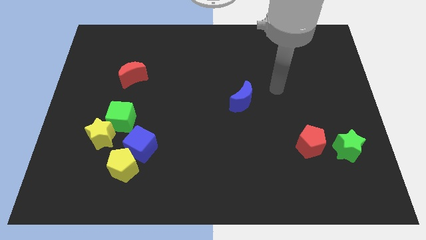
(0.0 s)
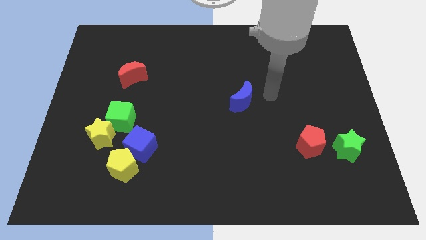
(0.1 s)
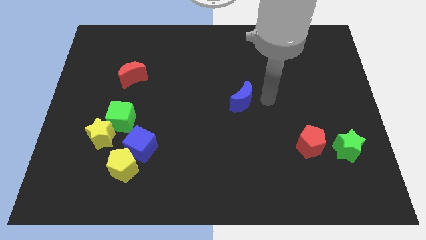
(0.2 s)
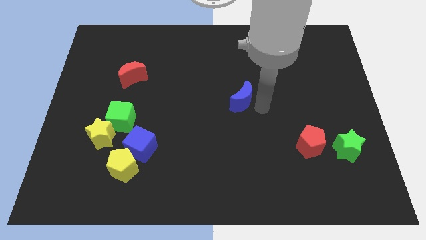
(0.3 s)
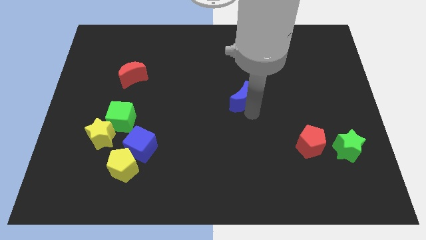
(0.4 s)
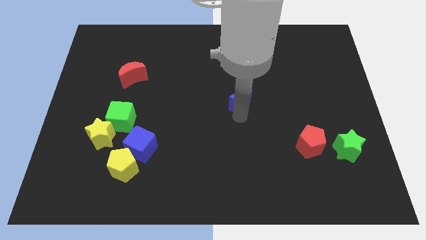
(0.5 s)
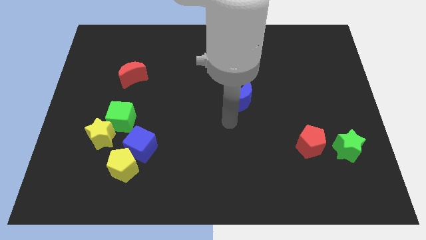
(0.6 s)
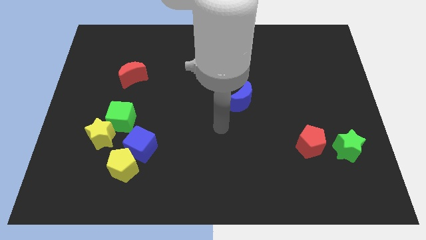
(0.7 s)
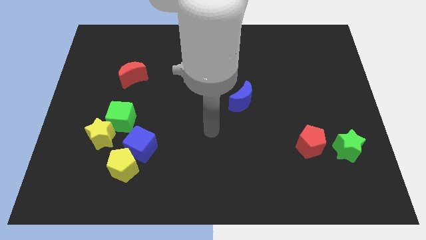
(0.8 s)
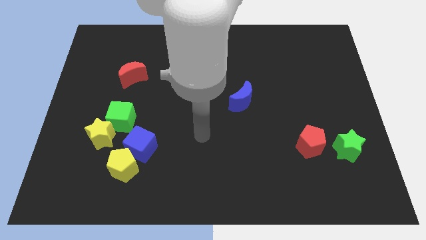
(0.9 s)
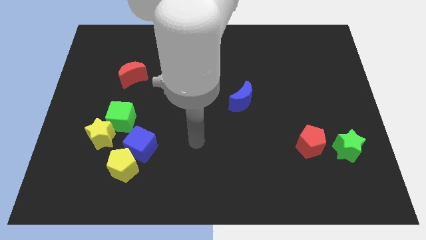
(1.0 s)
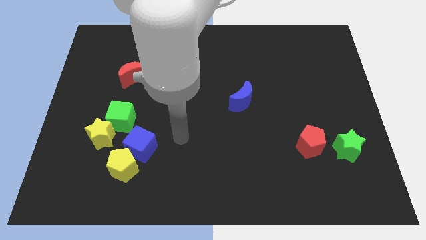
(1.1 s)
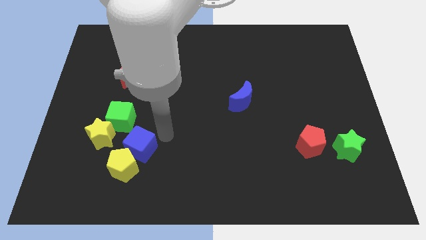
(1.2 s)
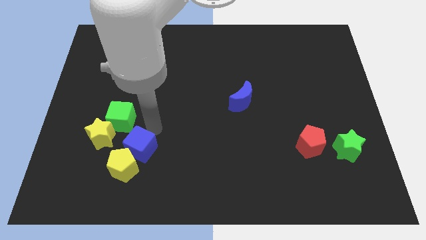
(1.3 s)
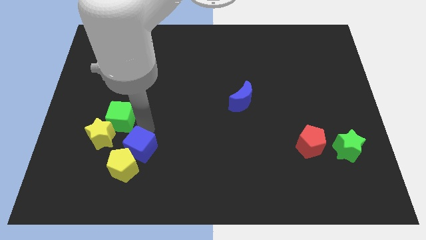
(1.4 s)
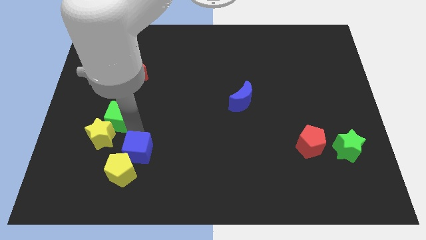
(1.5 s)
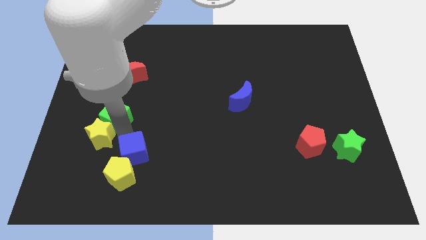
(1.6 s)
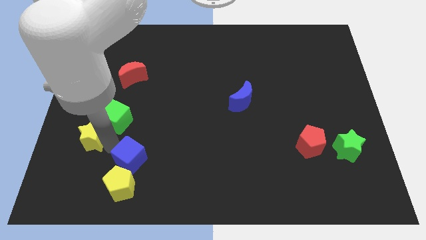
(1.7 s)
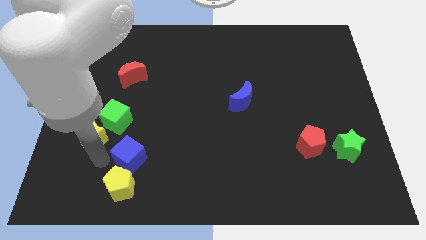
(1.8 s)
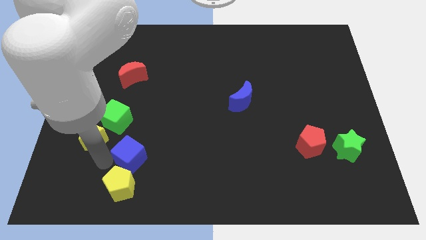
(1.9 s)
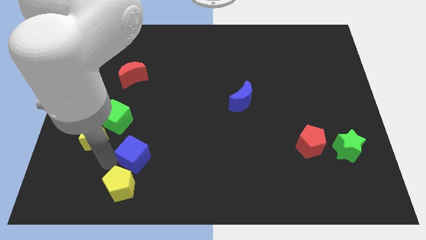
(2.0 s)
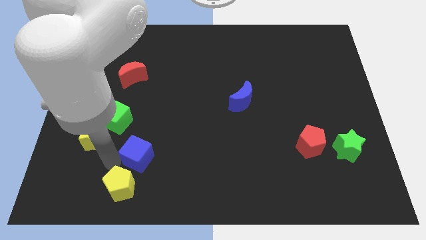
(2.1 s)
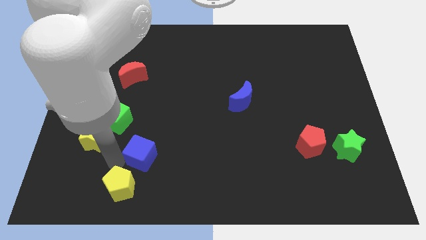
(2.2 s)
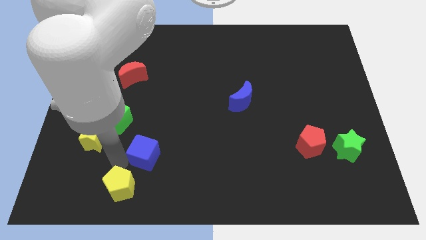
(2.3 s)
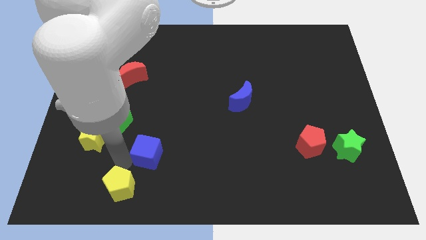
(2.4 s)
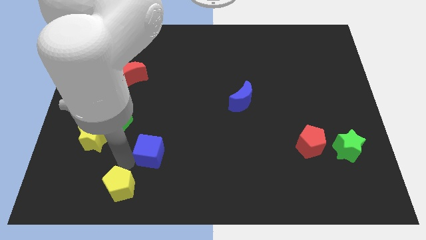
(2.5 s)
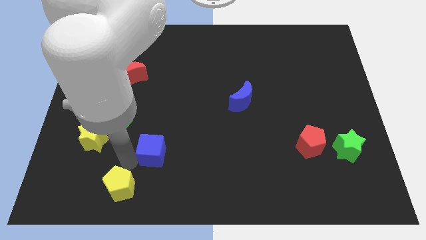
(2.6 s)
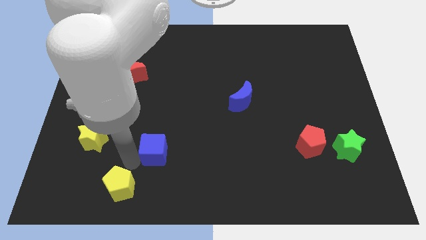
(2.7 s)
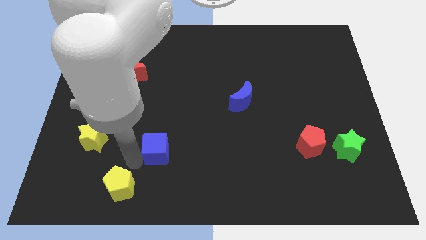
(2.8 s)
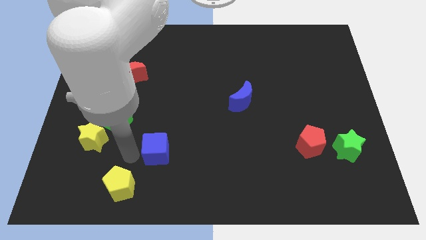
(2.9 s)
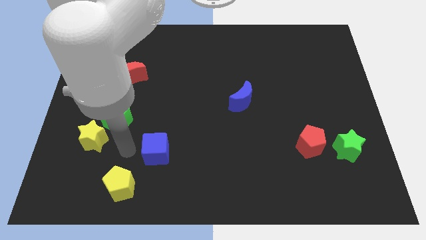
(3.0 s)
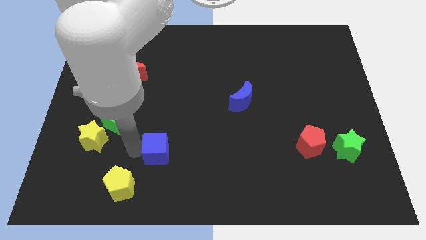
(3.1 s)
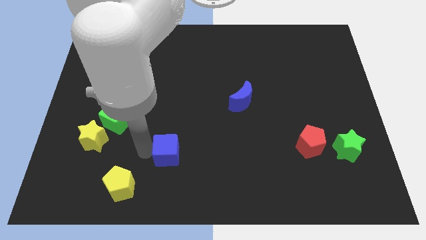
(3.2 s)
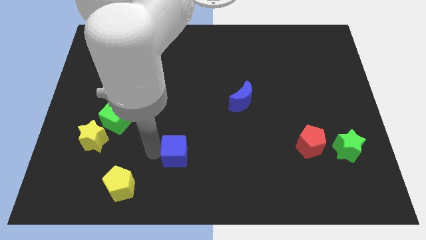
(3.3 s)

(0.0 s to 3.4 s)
push the blue cube to the right somewhat

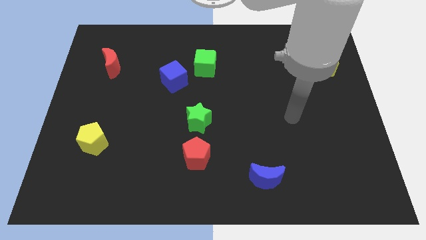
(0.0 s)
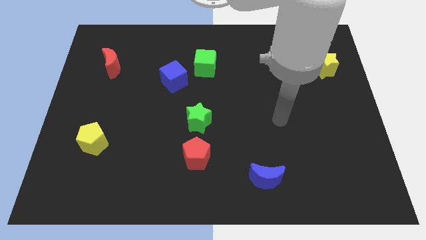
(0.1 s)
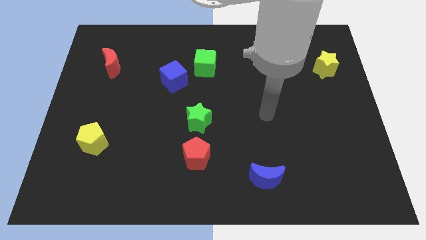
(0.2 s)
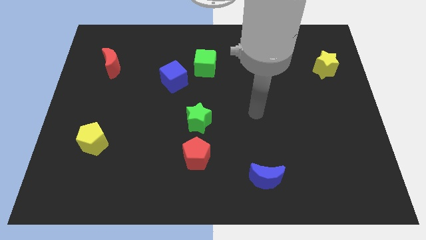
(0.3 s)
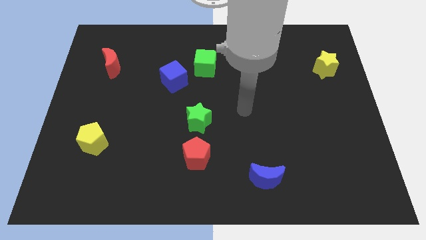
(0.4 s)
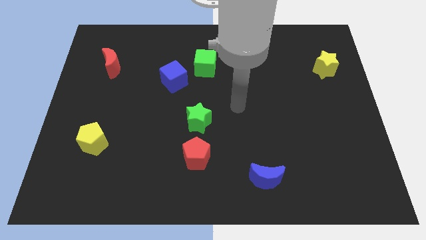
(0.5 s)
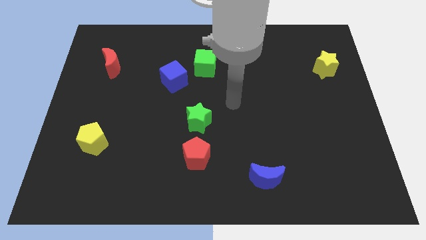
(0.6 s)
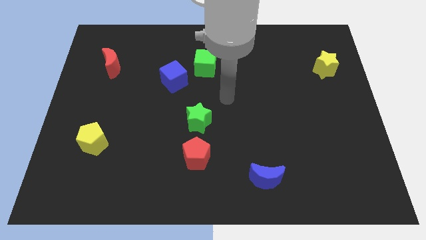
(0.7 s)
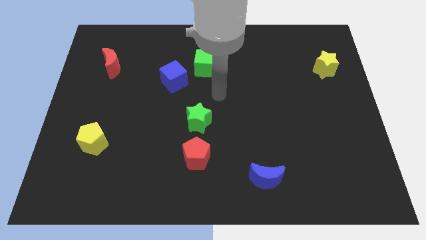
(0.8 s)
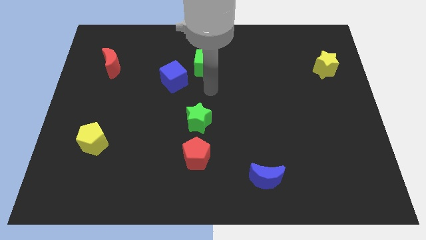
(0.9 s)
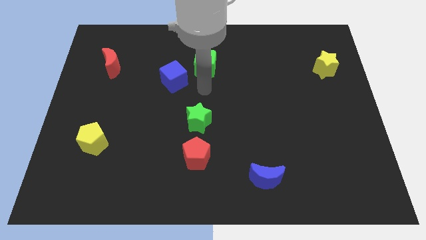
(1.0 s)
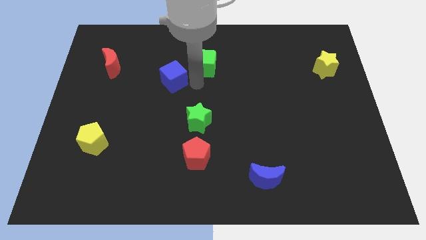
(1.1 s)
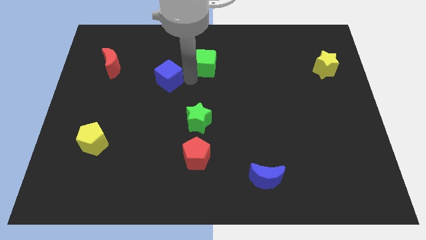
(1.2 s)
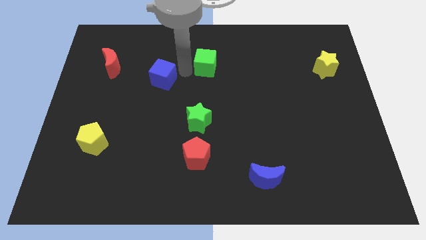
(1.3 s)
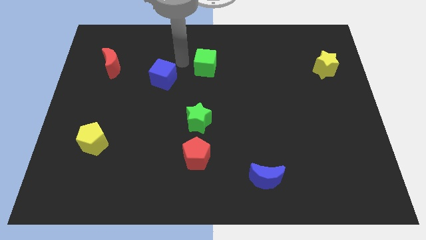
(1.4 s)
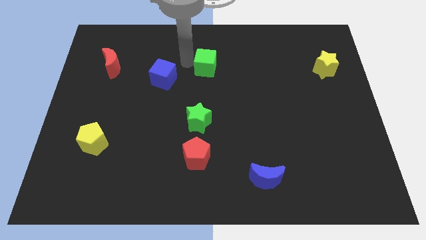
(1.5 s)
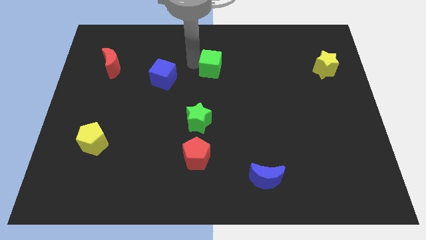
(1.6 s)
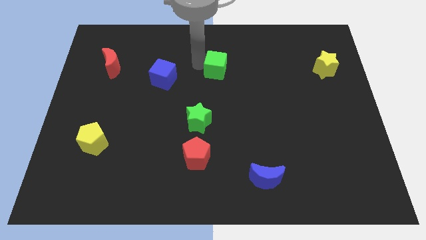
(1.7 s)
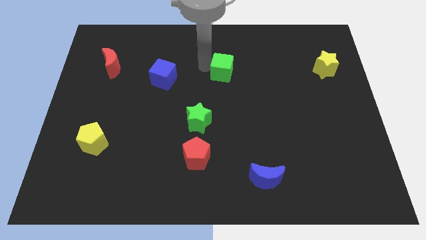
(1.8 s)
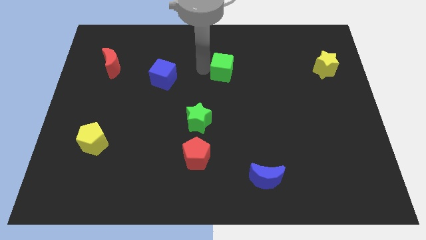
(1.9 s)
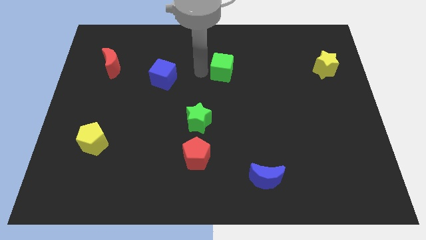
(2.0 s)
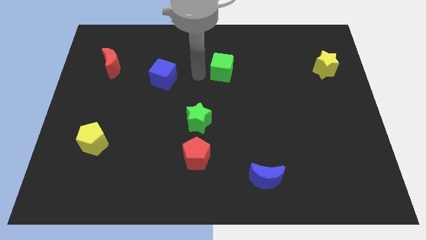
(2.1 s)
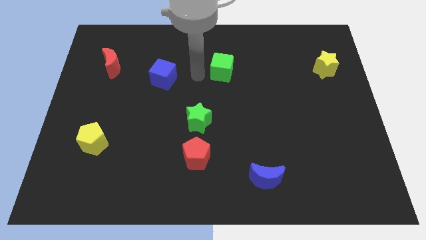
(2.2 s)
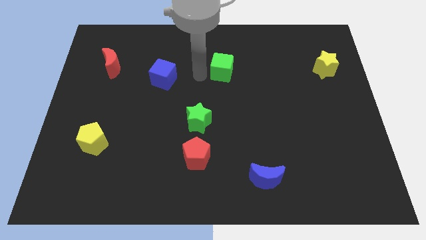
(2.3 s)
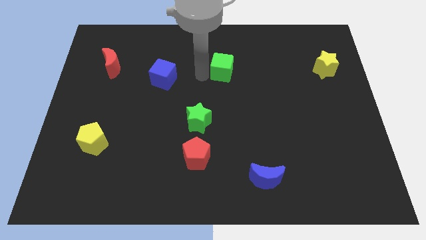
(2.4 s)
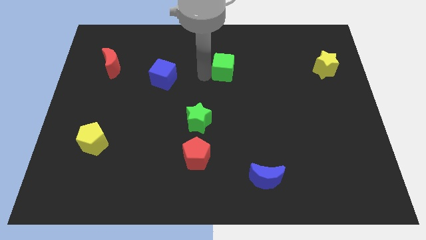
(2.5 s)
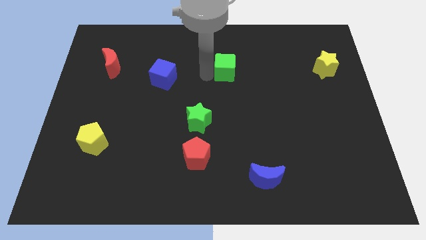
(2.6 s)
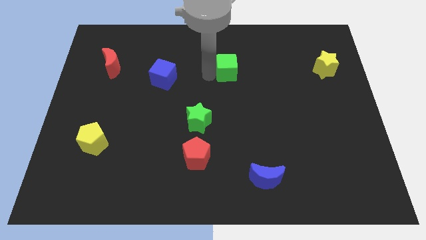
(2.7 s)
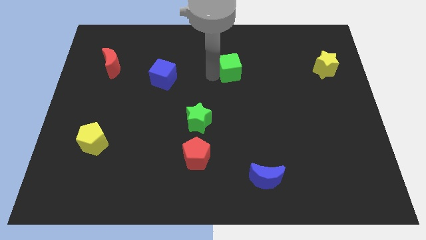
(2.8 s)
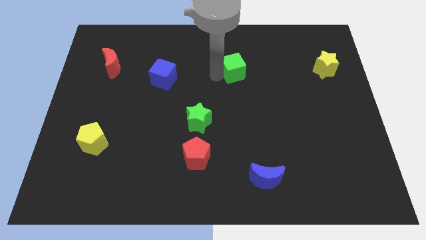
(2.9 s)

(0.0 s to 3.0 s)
move the green cube a bit right

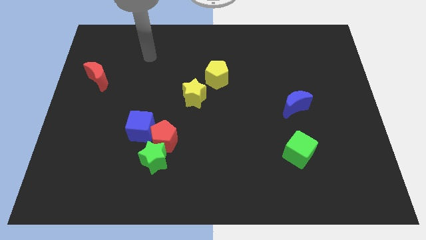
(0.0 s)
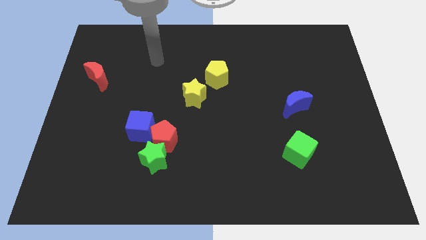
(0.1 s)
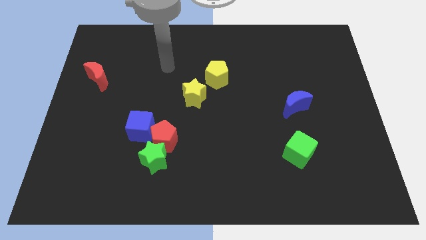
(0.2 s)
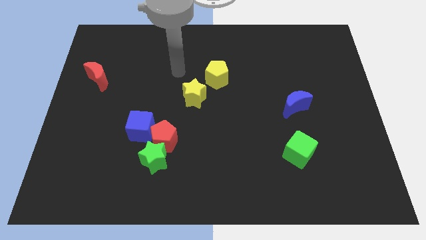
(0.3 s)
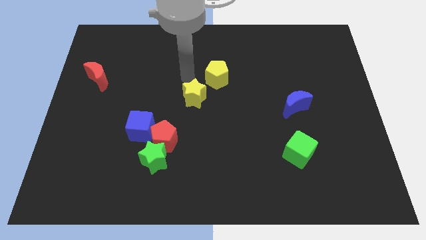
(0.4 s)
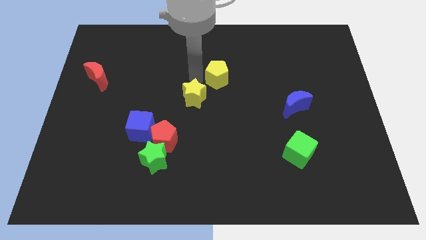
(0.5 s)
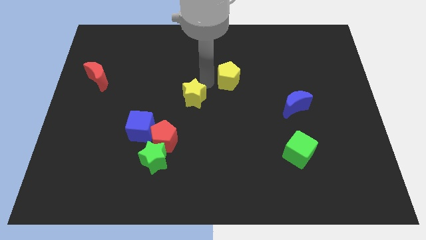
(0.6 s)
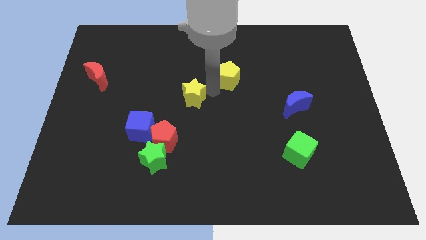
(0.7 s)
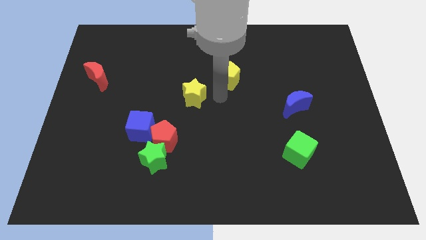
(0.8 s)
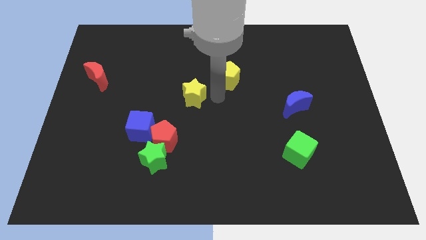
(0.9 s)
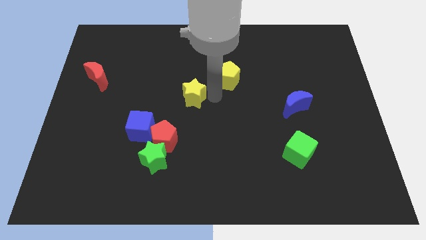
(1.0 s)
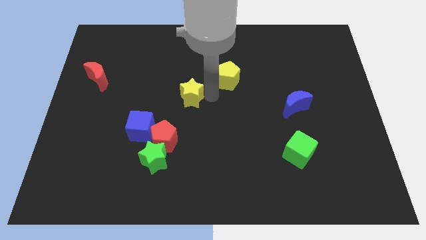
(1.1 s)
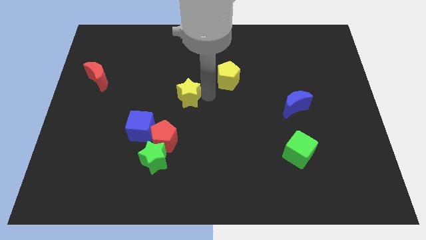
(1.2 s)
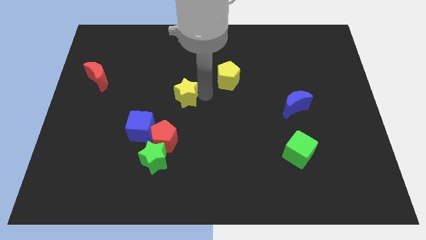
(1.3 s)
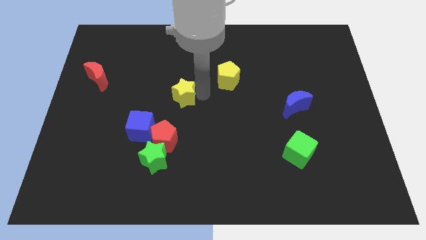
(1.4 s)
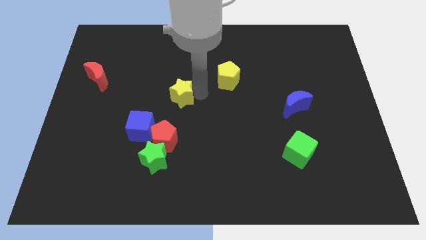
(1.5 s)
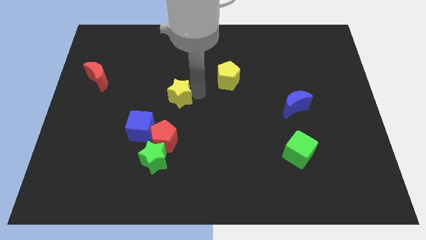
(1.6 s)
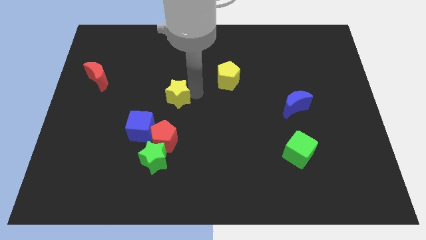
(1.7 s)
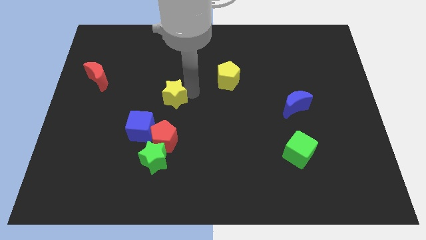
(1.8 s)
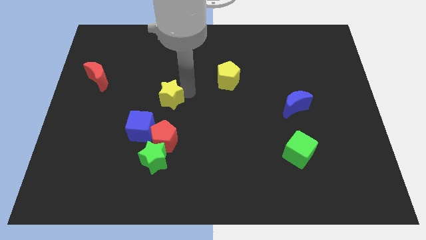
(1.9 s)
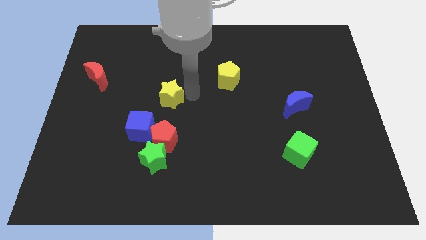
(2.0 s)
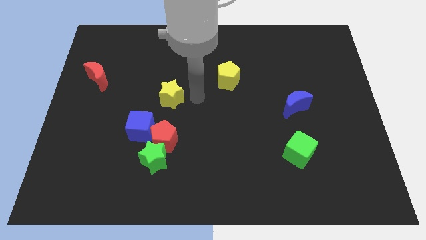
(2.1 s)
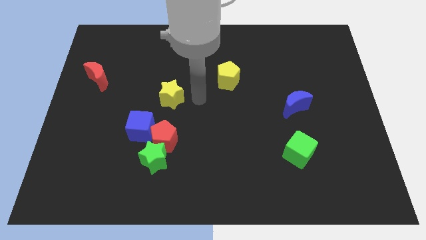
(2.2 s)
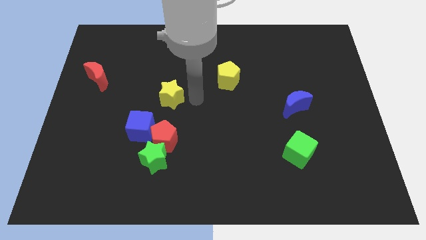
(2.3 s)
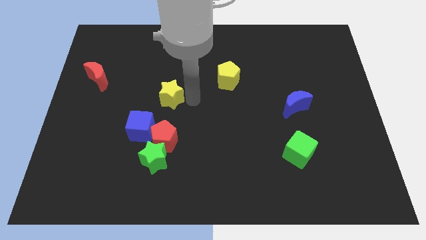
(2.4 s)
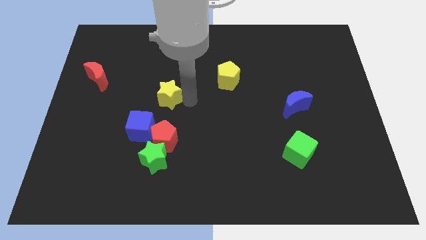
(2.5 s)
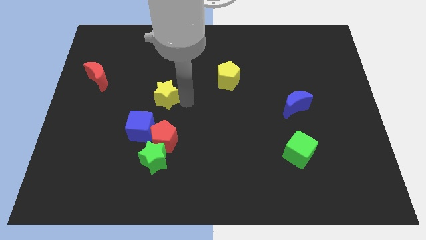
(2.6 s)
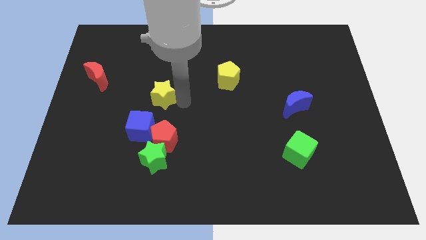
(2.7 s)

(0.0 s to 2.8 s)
move the yellow star left somewhat
